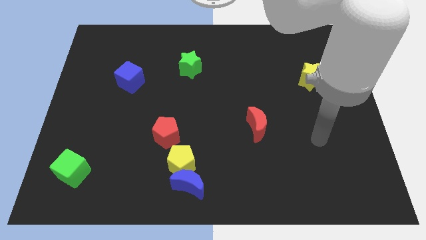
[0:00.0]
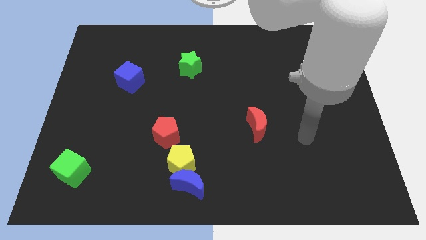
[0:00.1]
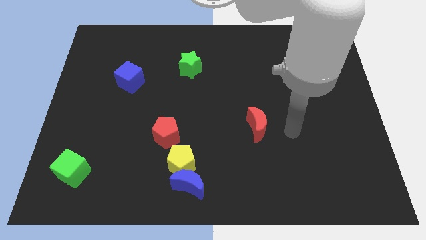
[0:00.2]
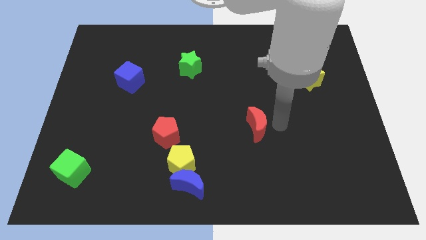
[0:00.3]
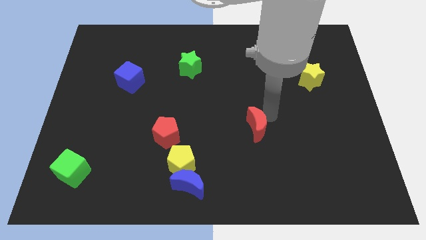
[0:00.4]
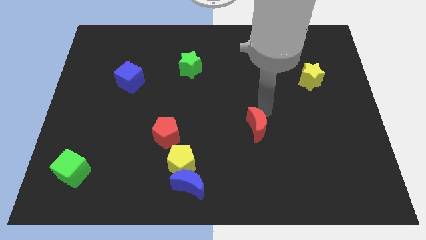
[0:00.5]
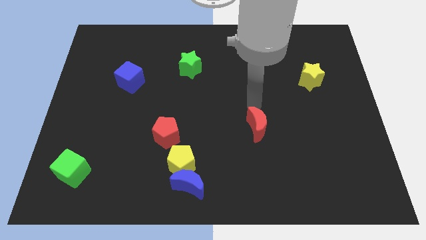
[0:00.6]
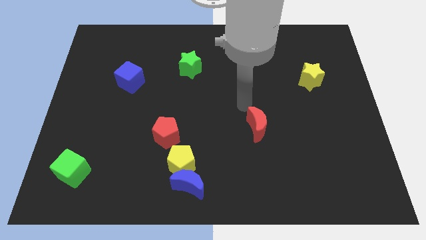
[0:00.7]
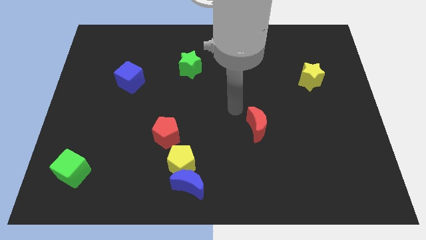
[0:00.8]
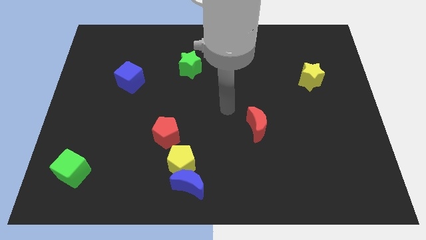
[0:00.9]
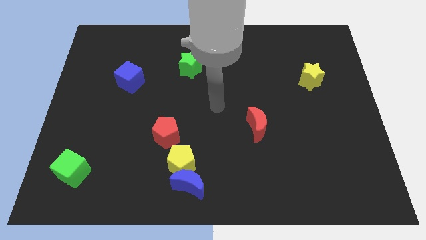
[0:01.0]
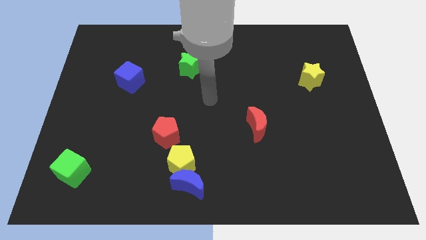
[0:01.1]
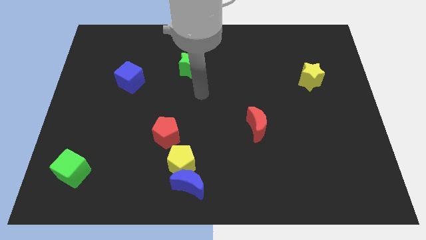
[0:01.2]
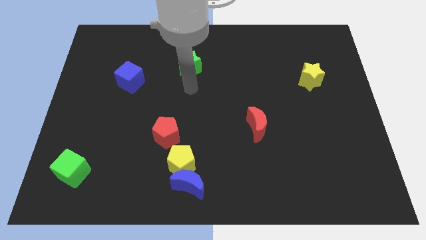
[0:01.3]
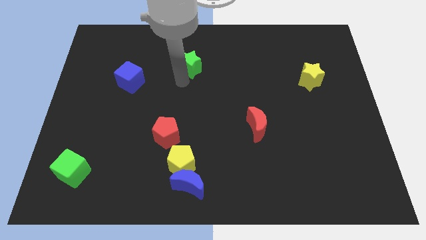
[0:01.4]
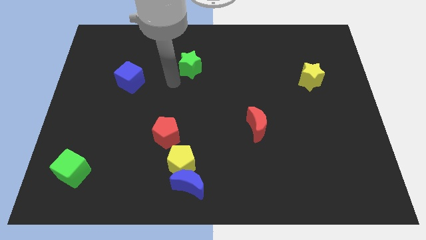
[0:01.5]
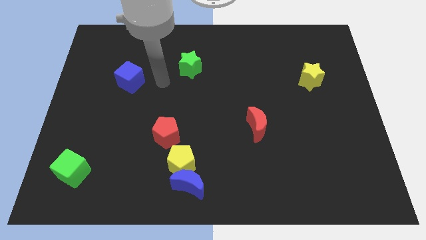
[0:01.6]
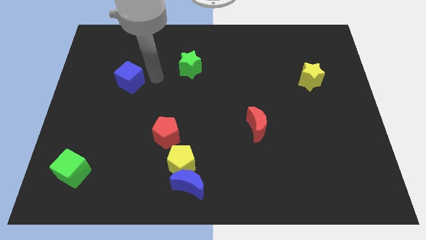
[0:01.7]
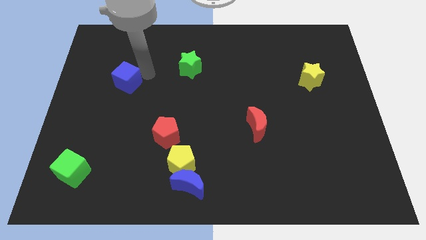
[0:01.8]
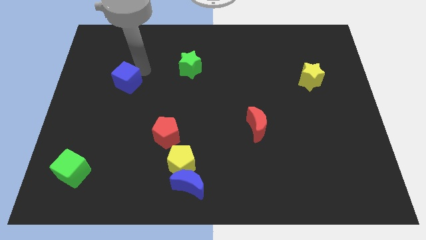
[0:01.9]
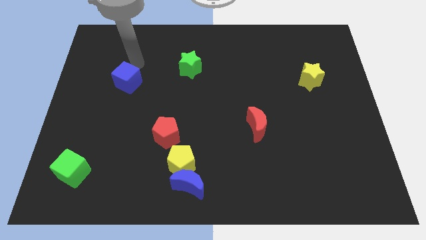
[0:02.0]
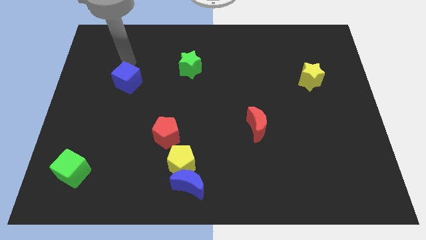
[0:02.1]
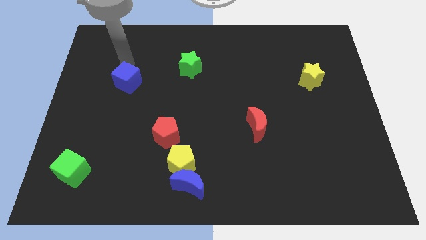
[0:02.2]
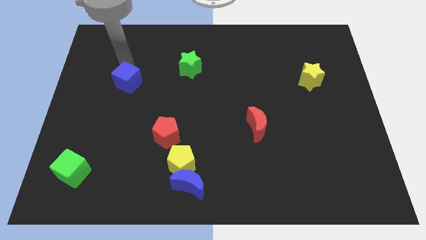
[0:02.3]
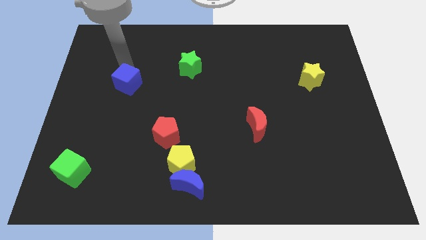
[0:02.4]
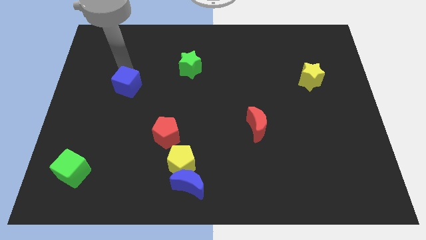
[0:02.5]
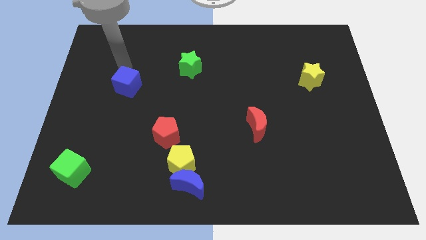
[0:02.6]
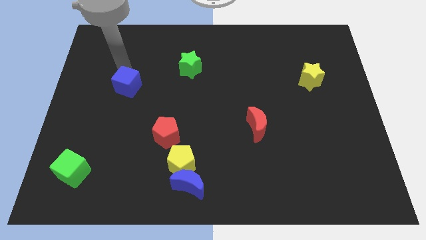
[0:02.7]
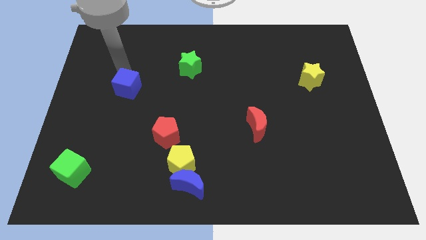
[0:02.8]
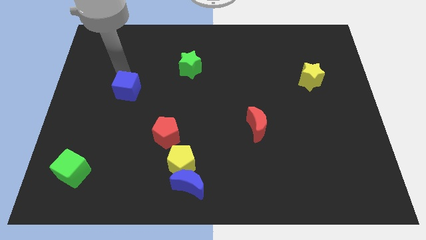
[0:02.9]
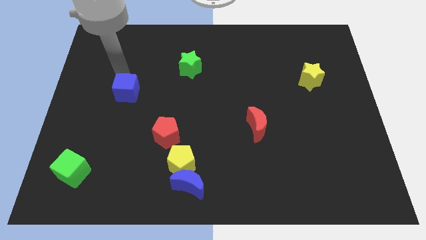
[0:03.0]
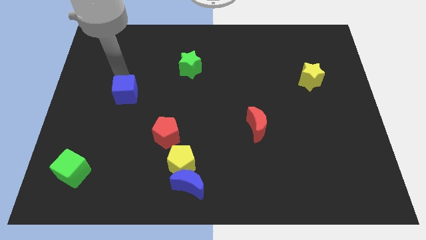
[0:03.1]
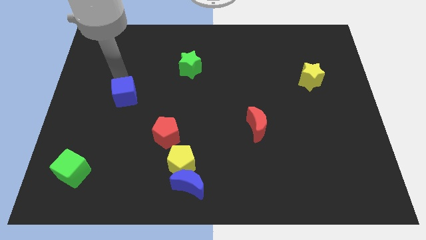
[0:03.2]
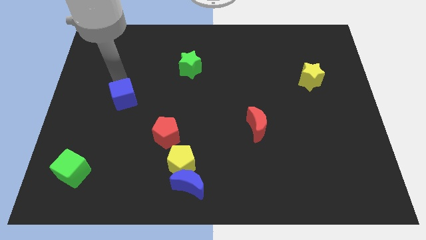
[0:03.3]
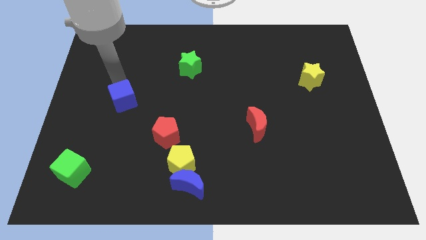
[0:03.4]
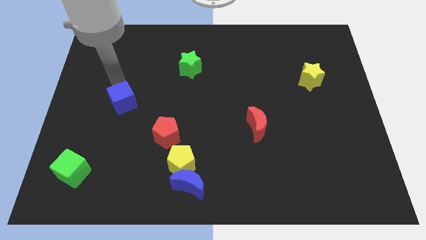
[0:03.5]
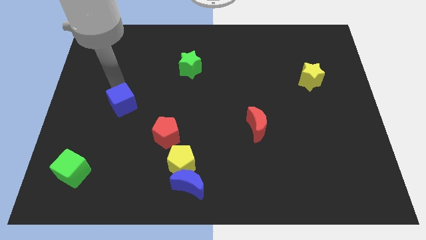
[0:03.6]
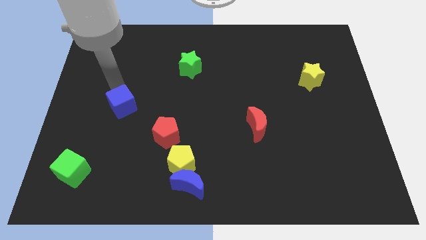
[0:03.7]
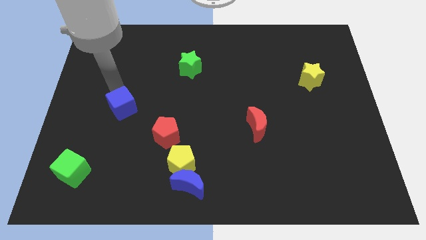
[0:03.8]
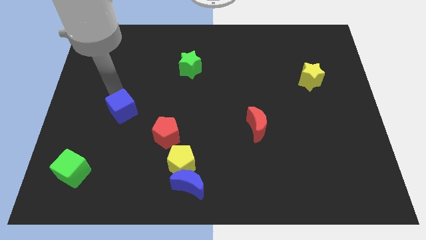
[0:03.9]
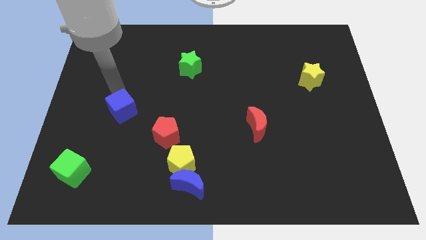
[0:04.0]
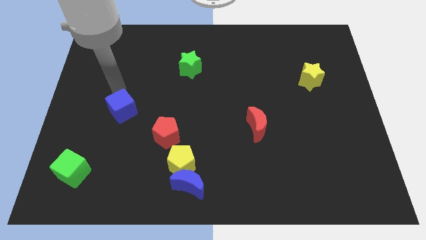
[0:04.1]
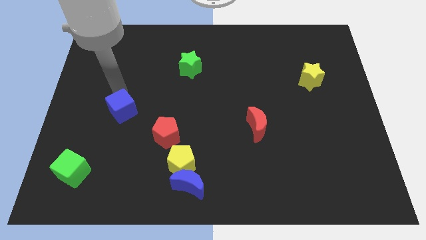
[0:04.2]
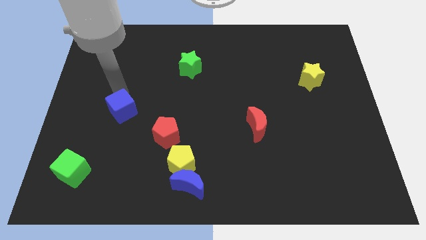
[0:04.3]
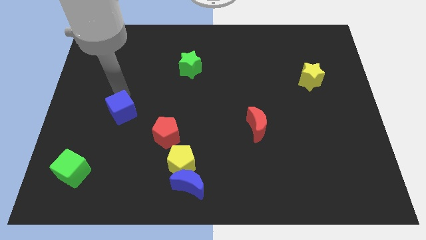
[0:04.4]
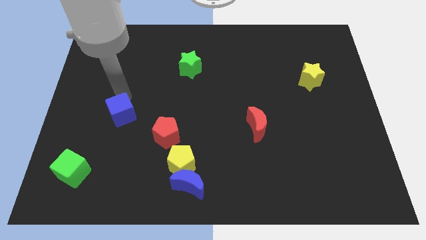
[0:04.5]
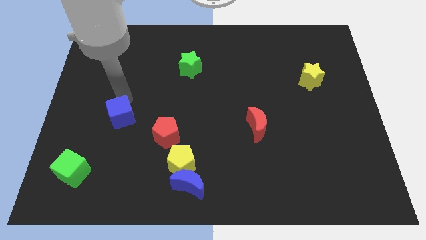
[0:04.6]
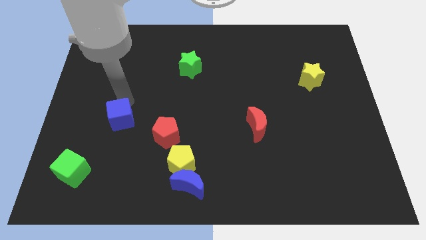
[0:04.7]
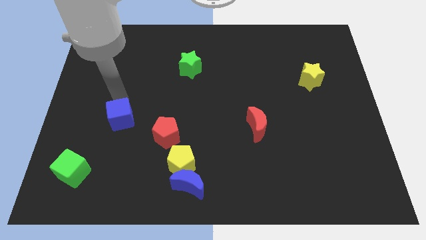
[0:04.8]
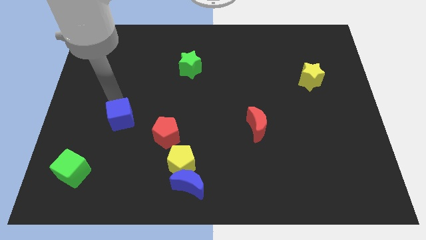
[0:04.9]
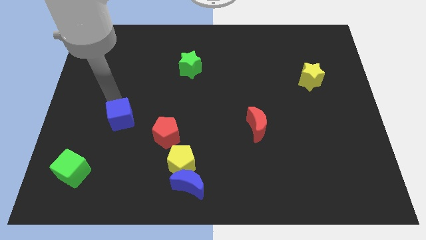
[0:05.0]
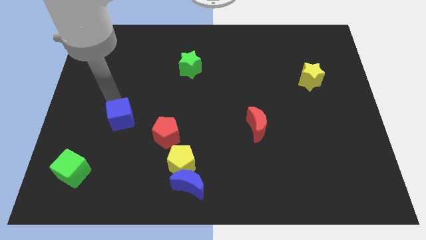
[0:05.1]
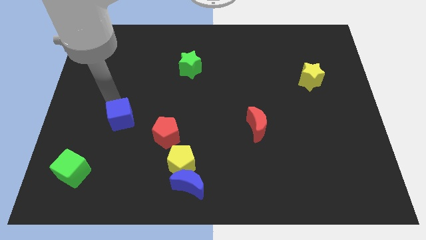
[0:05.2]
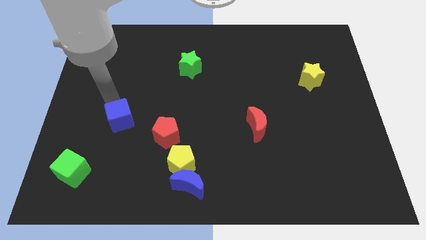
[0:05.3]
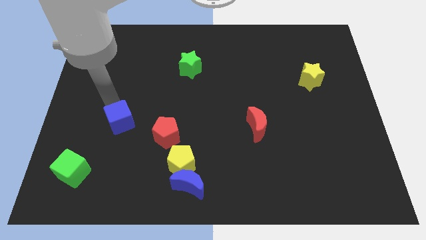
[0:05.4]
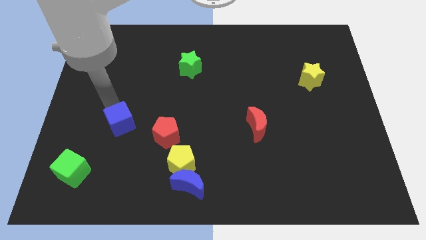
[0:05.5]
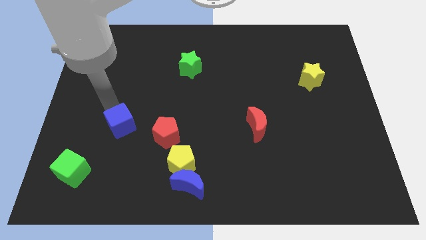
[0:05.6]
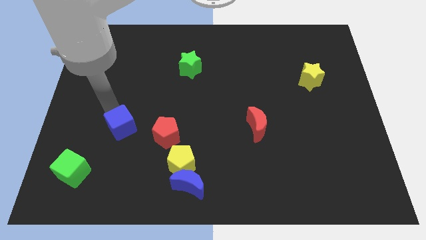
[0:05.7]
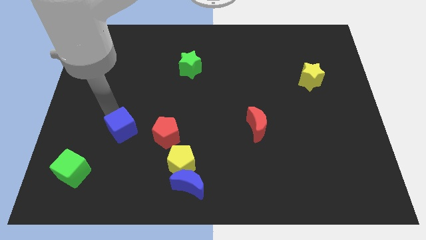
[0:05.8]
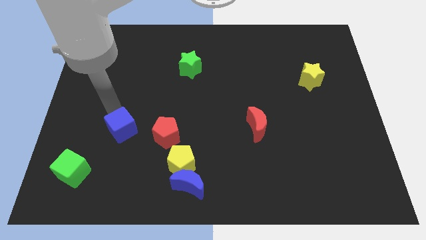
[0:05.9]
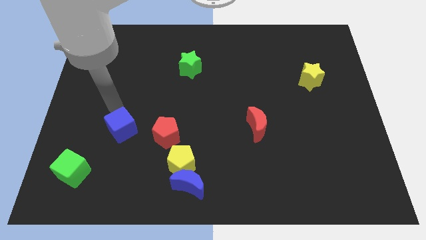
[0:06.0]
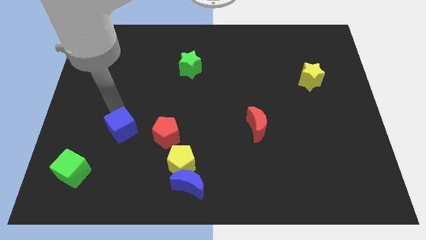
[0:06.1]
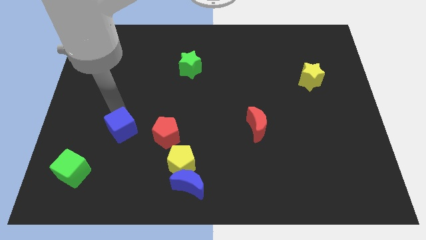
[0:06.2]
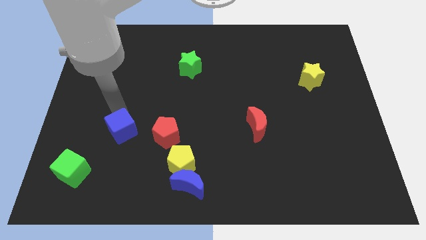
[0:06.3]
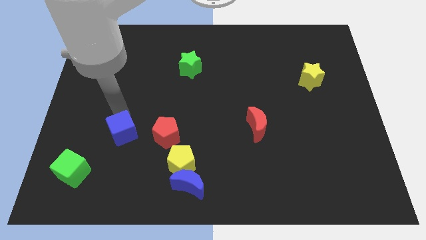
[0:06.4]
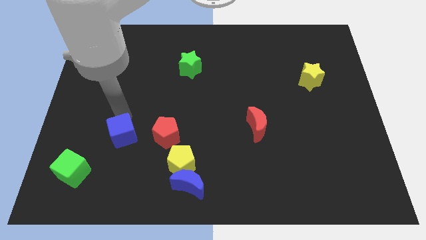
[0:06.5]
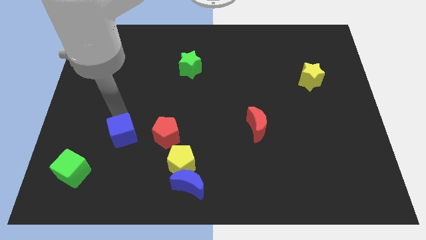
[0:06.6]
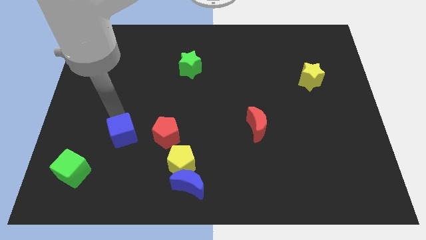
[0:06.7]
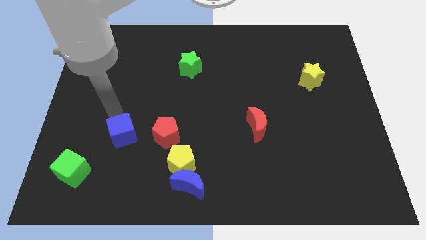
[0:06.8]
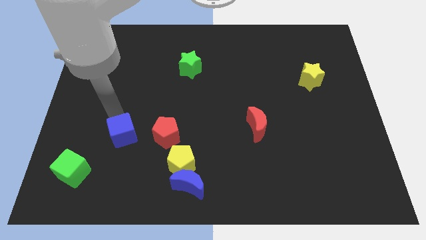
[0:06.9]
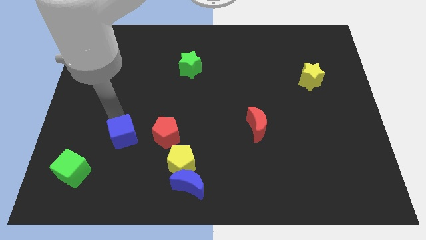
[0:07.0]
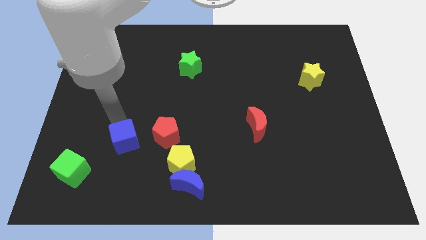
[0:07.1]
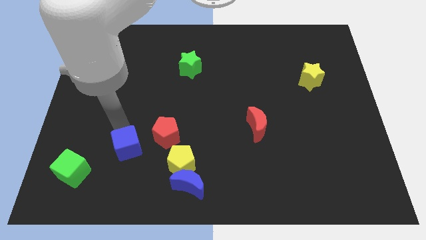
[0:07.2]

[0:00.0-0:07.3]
move the blue cube left of the yellow pentagon

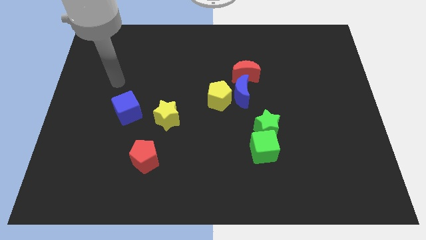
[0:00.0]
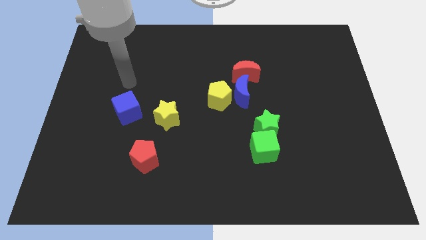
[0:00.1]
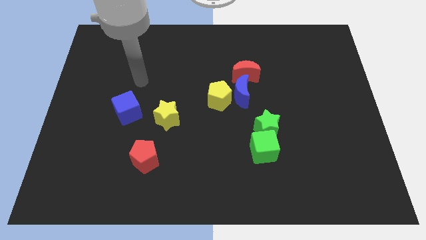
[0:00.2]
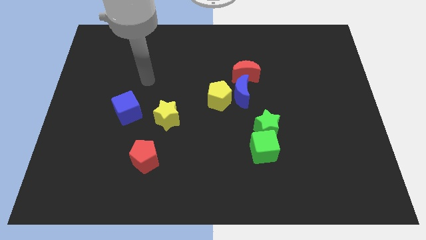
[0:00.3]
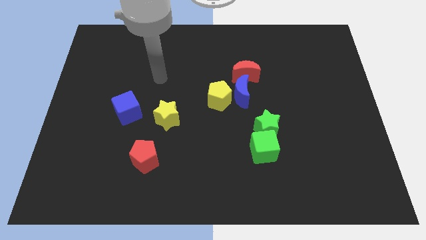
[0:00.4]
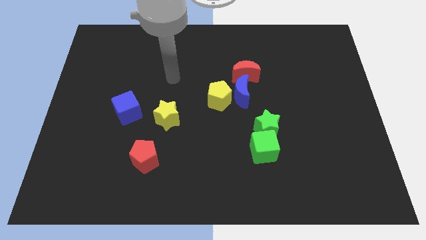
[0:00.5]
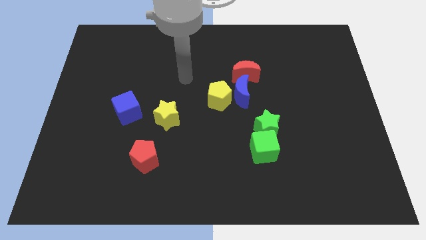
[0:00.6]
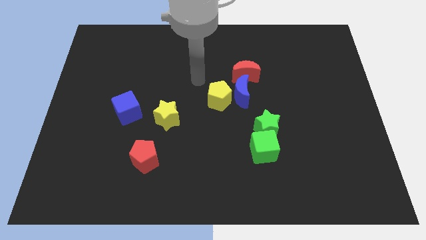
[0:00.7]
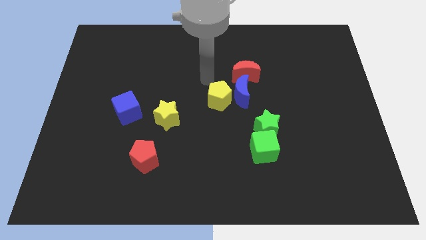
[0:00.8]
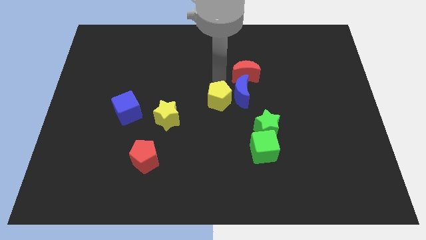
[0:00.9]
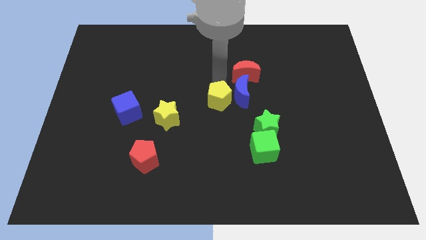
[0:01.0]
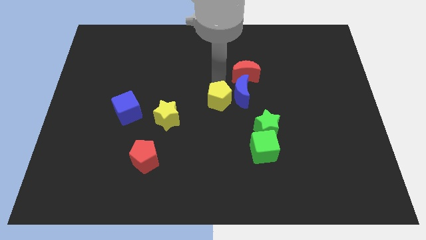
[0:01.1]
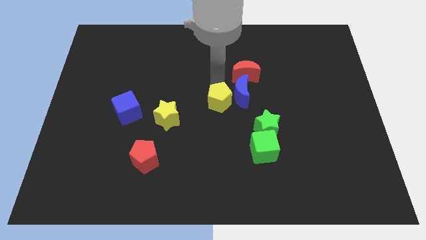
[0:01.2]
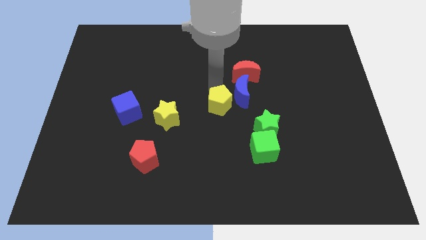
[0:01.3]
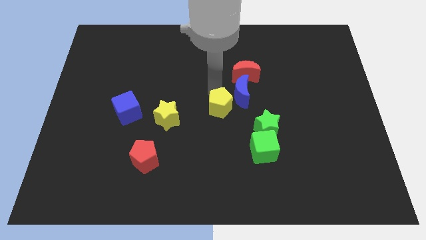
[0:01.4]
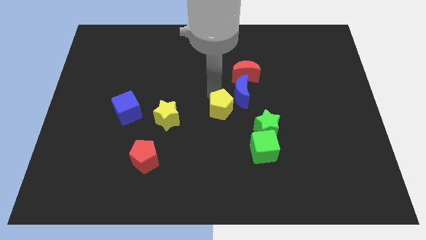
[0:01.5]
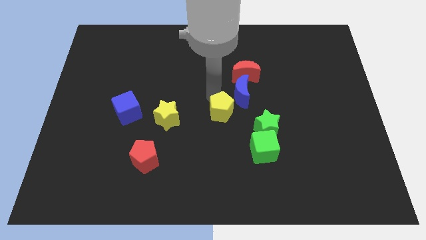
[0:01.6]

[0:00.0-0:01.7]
put the yellow pentagon to the left side of the green star
